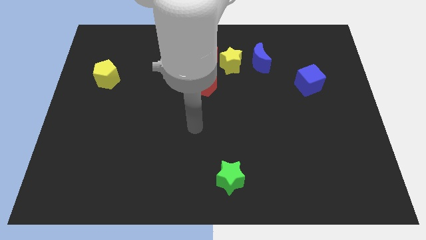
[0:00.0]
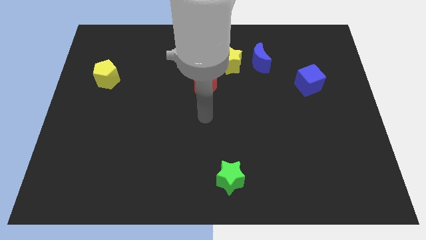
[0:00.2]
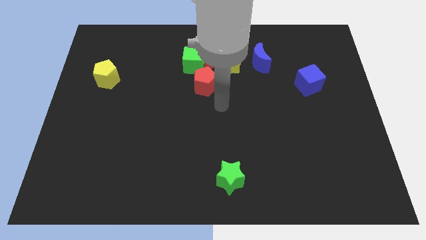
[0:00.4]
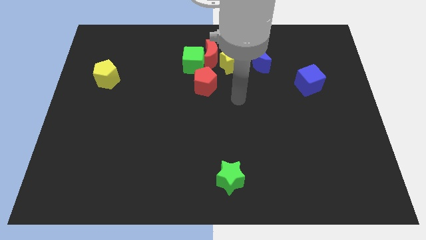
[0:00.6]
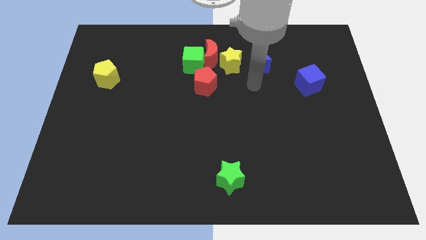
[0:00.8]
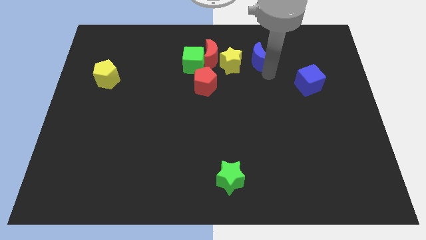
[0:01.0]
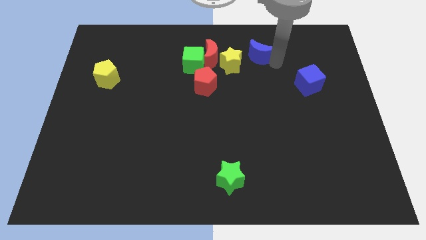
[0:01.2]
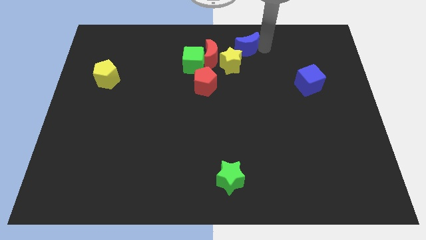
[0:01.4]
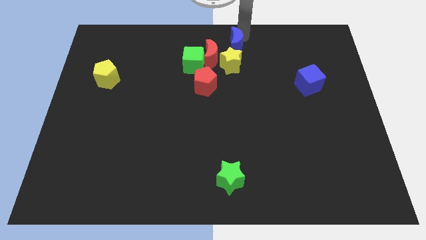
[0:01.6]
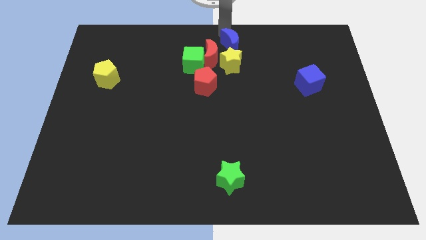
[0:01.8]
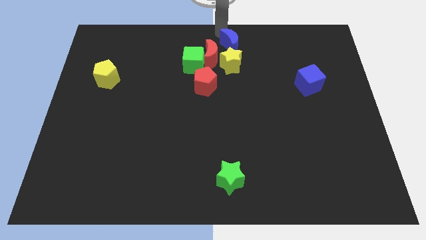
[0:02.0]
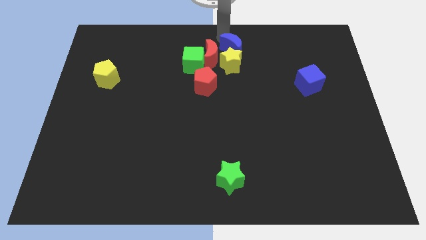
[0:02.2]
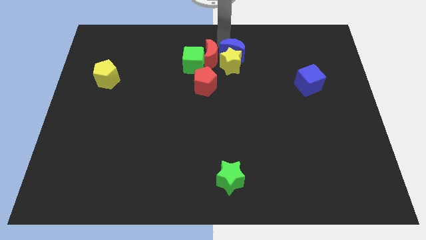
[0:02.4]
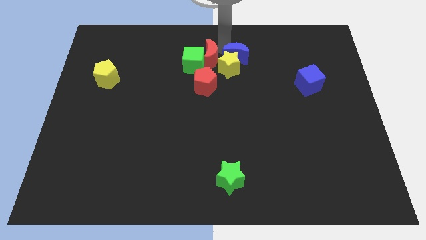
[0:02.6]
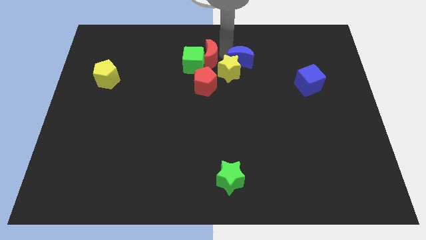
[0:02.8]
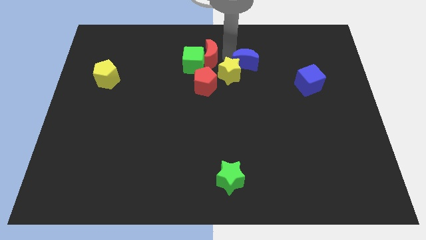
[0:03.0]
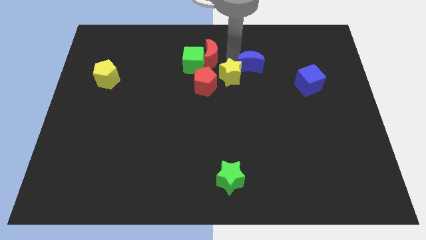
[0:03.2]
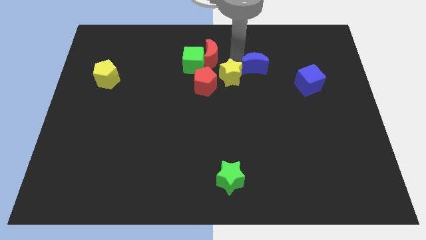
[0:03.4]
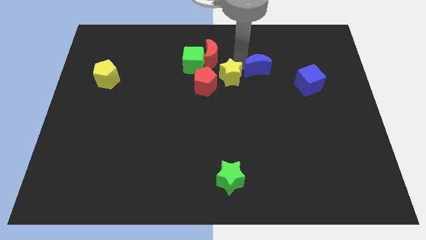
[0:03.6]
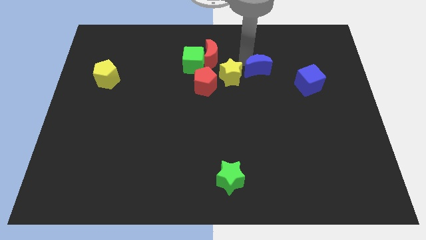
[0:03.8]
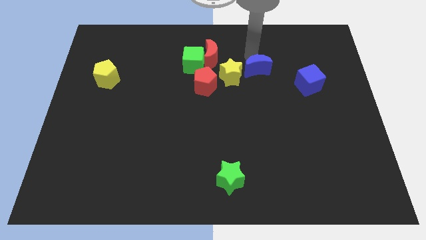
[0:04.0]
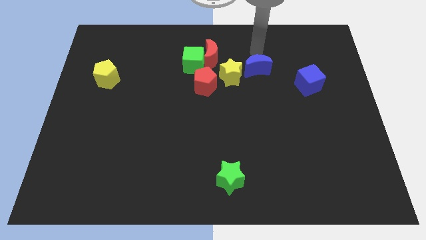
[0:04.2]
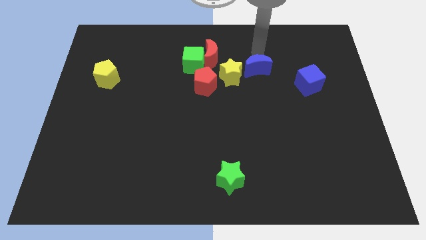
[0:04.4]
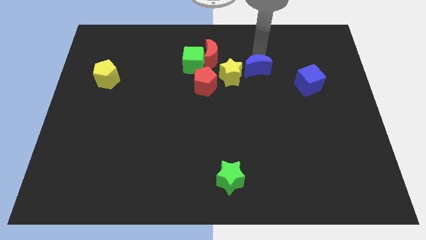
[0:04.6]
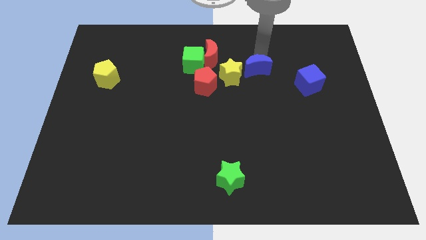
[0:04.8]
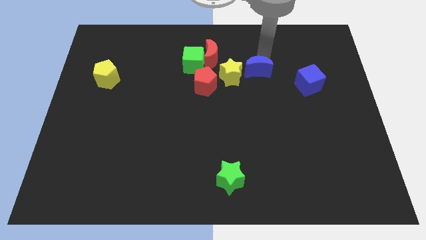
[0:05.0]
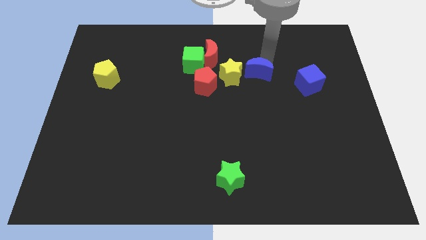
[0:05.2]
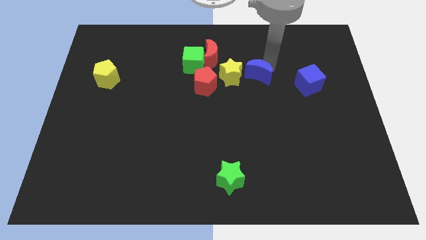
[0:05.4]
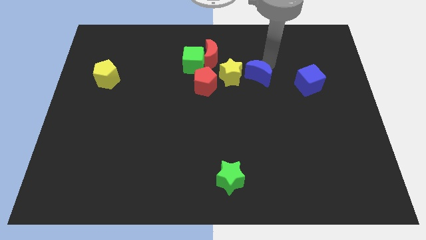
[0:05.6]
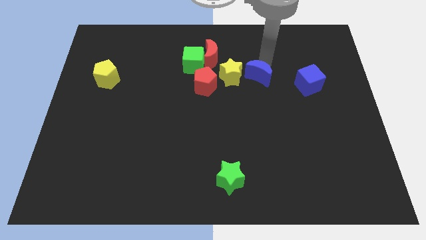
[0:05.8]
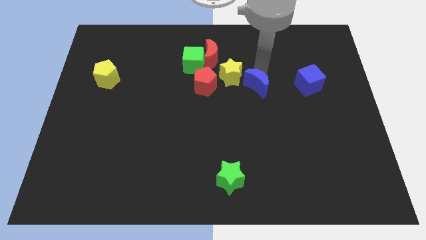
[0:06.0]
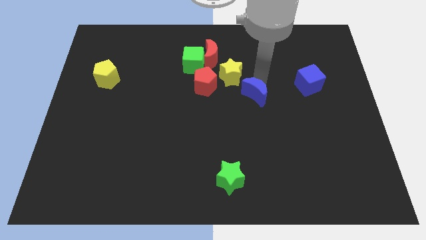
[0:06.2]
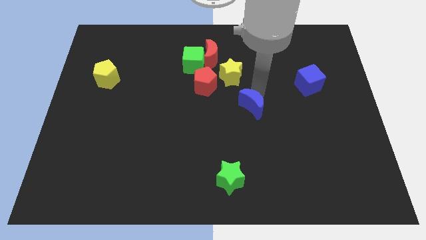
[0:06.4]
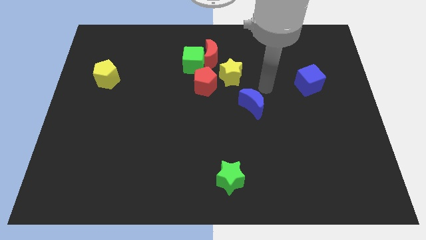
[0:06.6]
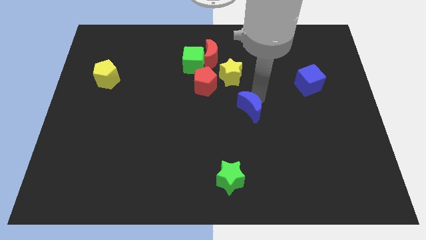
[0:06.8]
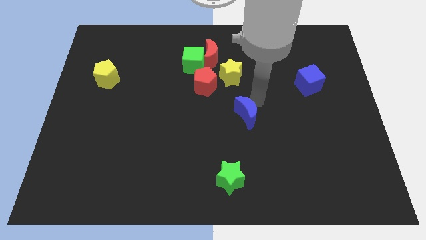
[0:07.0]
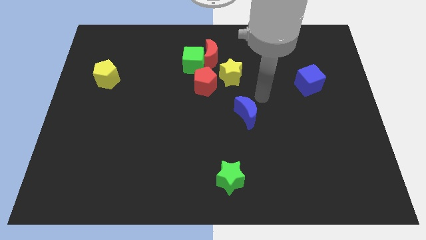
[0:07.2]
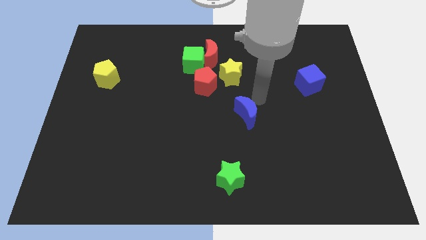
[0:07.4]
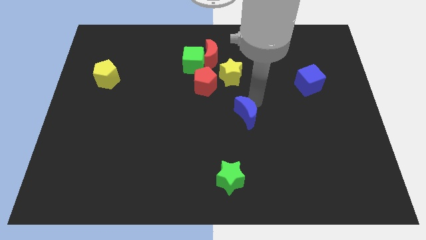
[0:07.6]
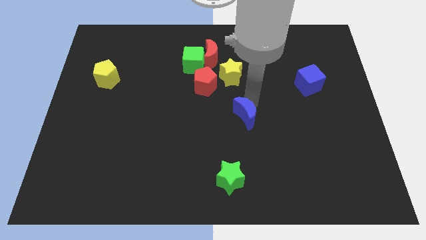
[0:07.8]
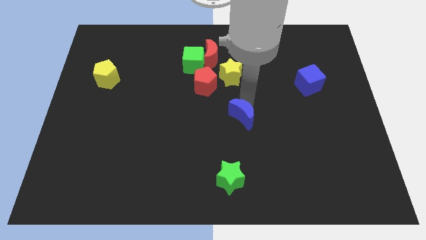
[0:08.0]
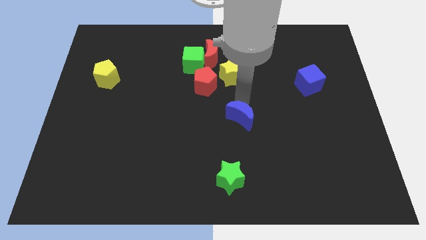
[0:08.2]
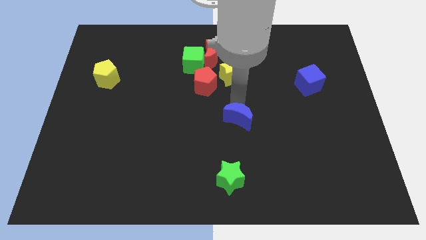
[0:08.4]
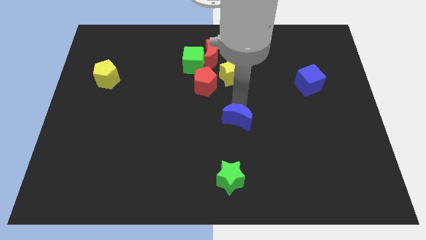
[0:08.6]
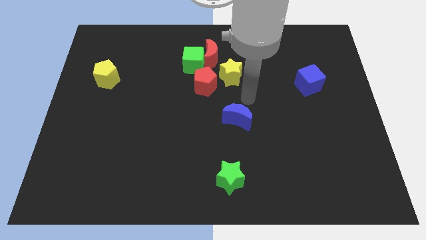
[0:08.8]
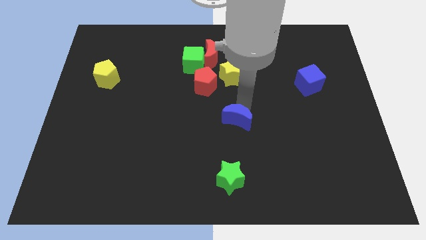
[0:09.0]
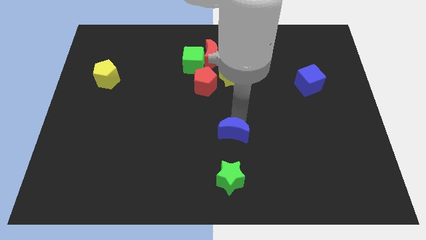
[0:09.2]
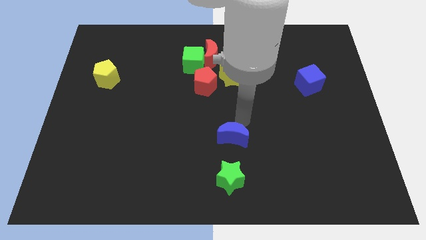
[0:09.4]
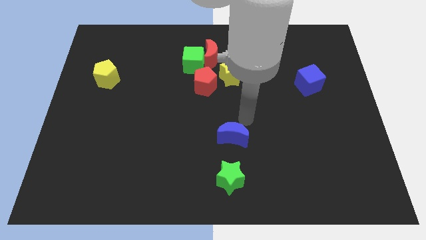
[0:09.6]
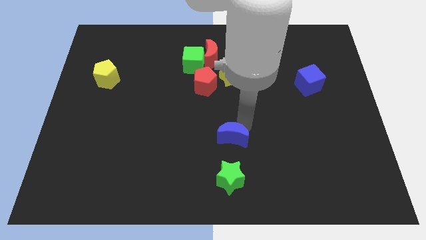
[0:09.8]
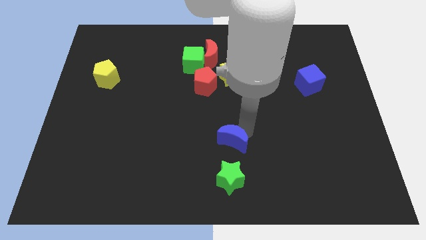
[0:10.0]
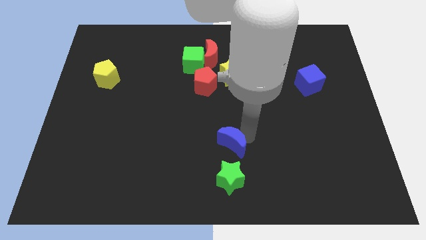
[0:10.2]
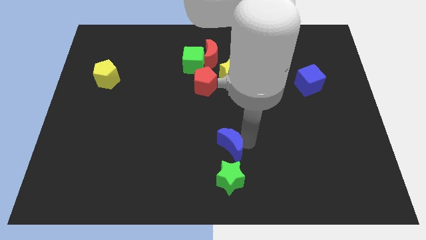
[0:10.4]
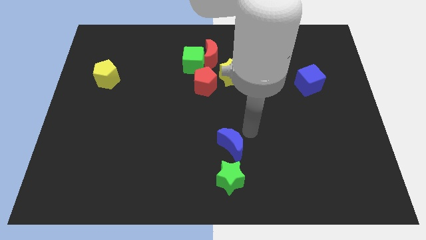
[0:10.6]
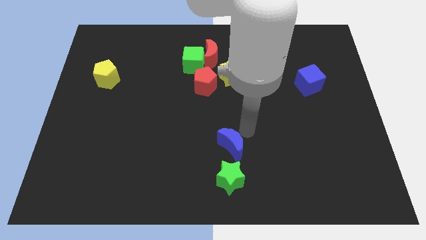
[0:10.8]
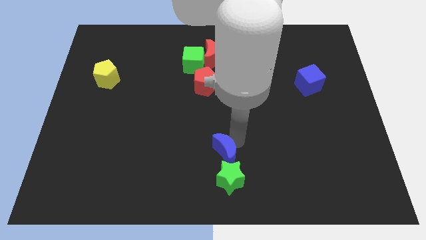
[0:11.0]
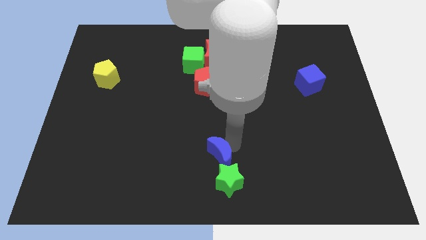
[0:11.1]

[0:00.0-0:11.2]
slide the blue moon to the bottom side

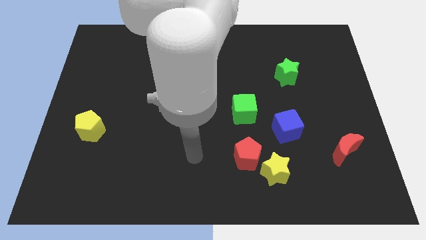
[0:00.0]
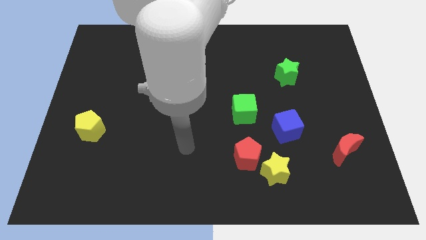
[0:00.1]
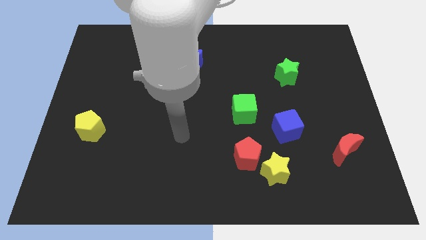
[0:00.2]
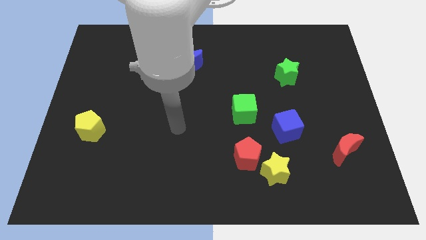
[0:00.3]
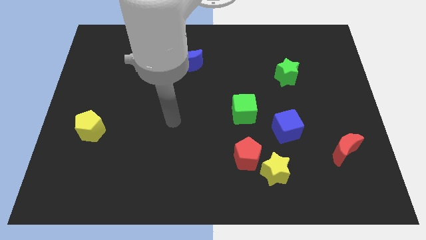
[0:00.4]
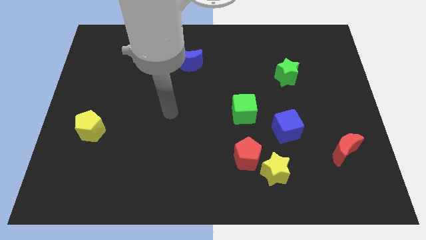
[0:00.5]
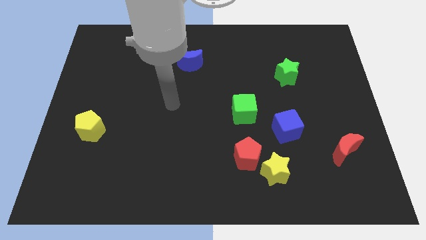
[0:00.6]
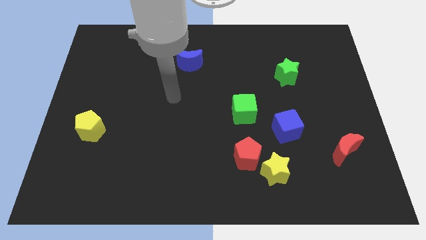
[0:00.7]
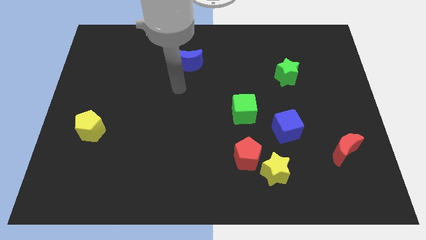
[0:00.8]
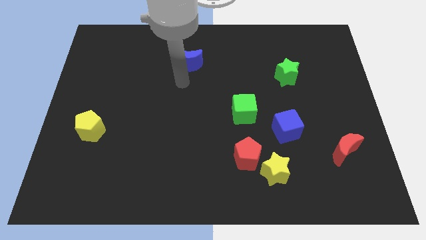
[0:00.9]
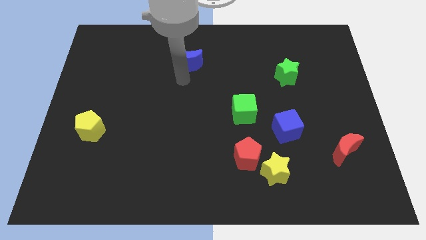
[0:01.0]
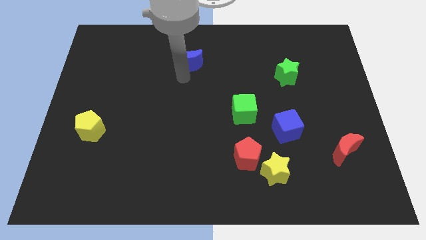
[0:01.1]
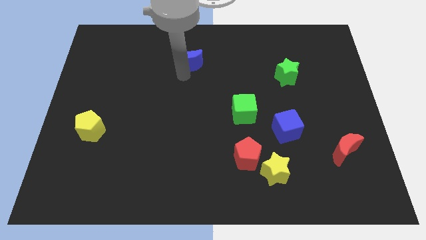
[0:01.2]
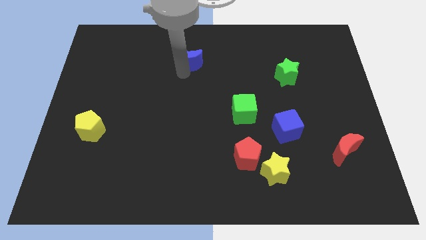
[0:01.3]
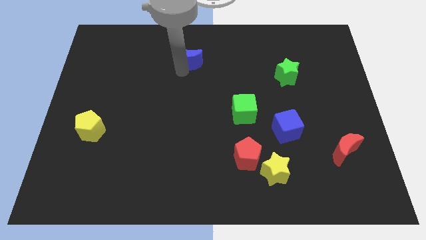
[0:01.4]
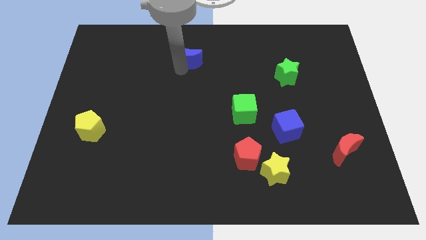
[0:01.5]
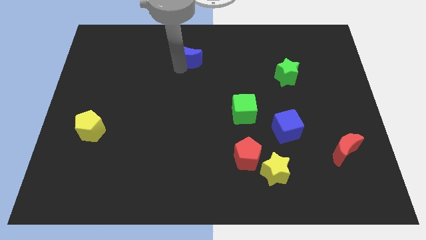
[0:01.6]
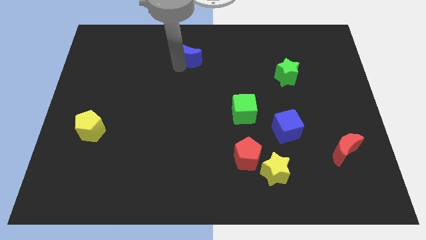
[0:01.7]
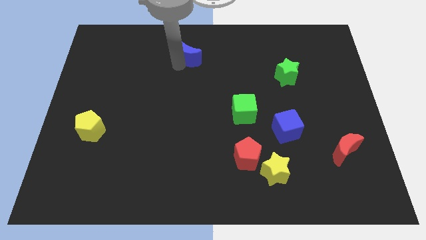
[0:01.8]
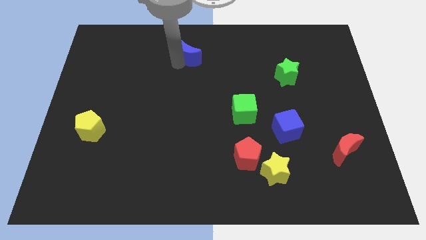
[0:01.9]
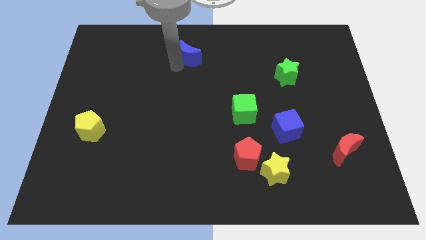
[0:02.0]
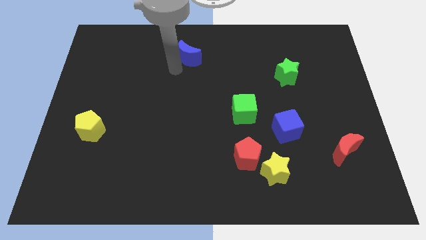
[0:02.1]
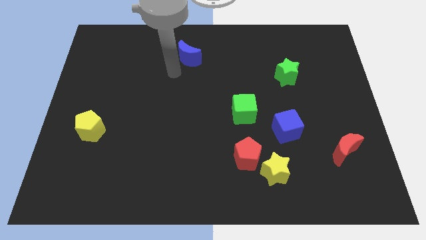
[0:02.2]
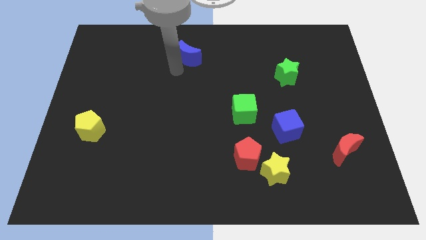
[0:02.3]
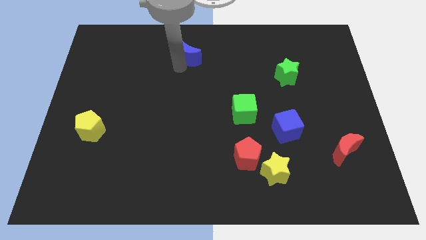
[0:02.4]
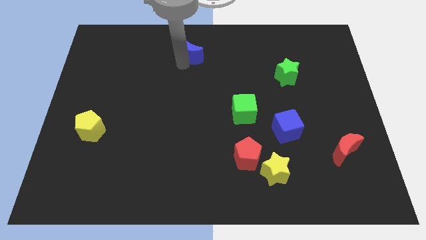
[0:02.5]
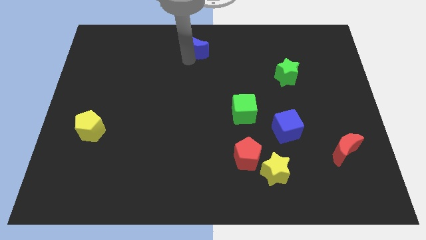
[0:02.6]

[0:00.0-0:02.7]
slide the blue moon to the top
